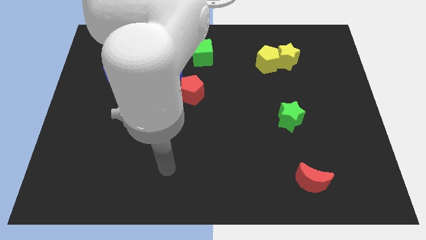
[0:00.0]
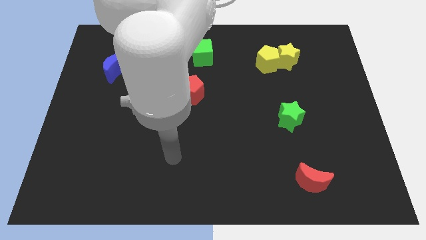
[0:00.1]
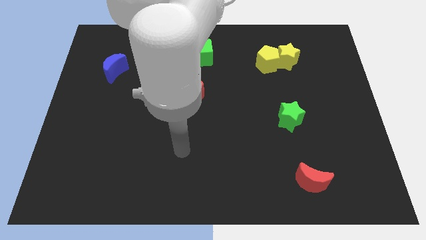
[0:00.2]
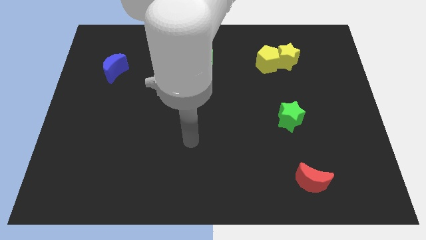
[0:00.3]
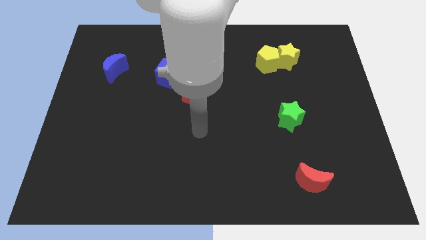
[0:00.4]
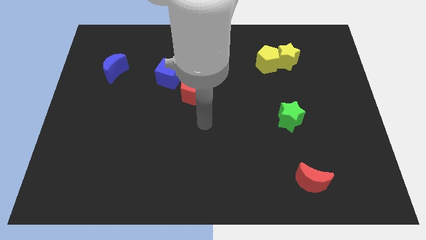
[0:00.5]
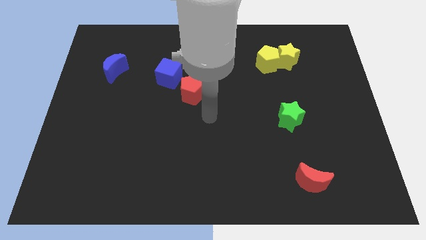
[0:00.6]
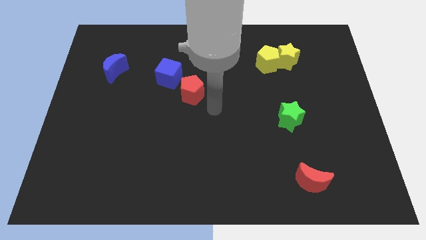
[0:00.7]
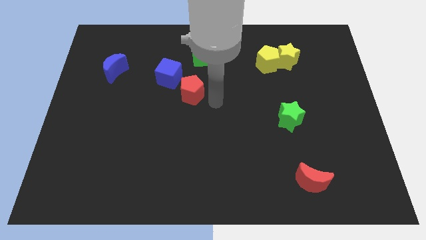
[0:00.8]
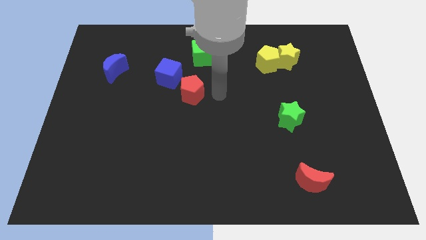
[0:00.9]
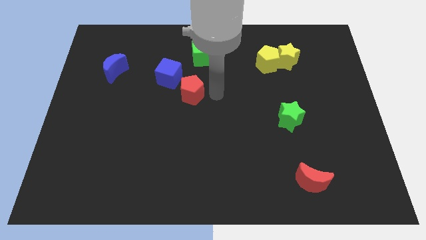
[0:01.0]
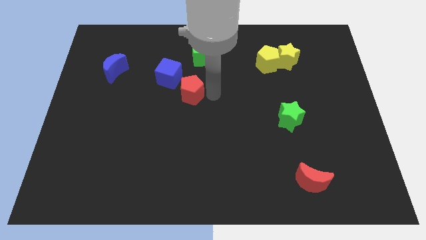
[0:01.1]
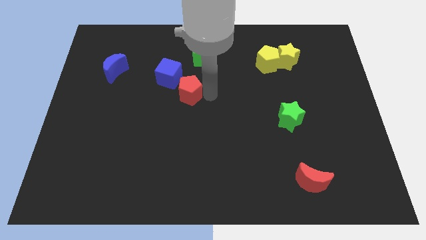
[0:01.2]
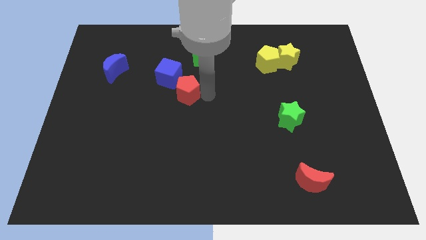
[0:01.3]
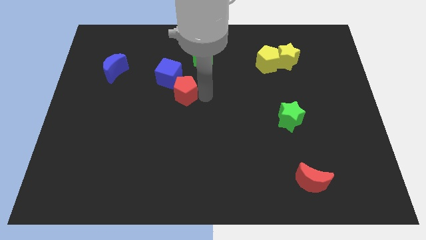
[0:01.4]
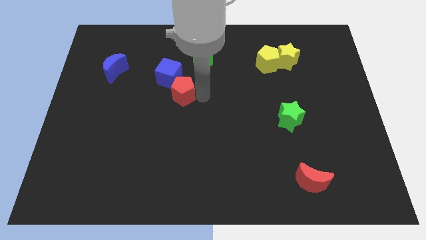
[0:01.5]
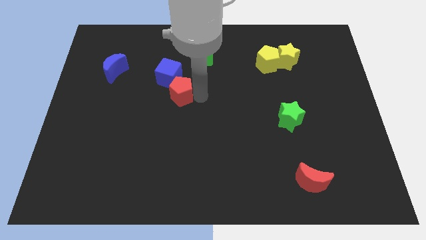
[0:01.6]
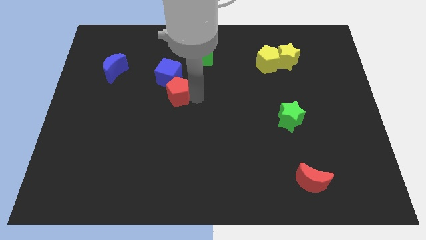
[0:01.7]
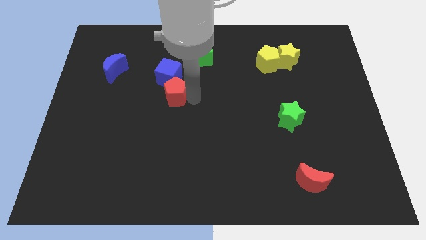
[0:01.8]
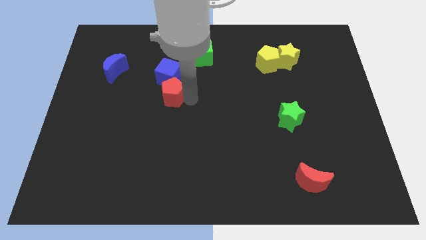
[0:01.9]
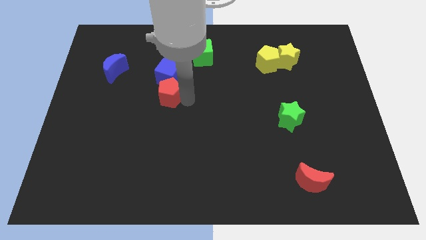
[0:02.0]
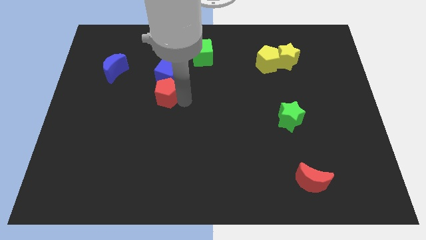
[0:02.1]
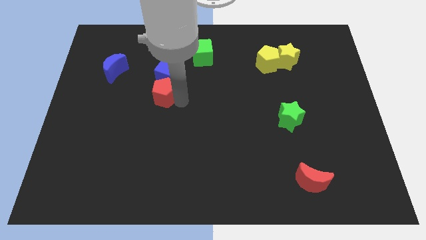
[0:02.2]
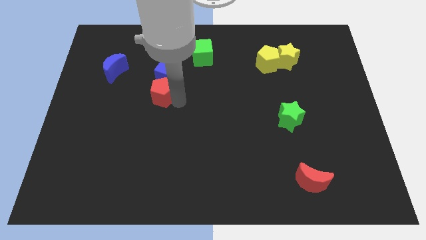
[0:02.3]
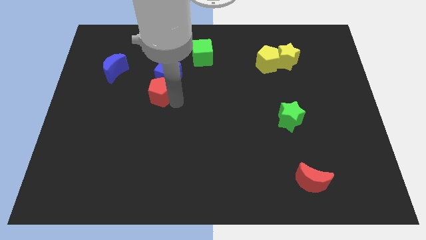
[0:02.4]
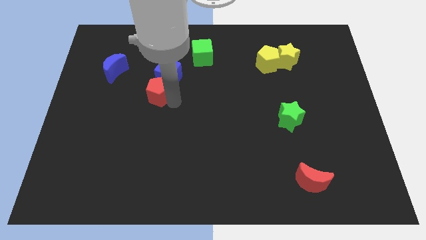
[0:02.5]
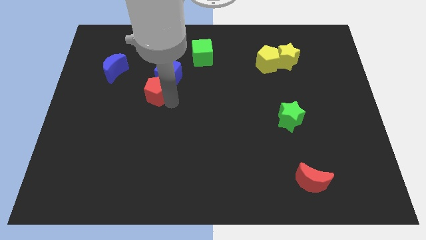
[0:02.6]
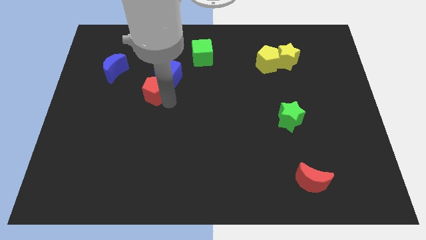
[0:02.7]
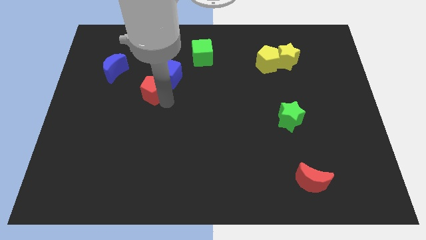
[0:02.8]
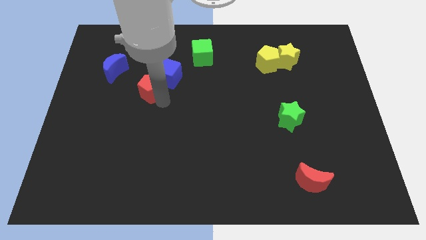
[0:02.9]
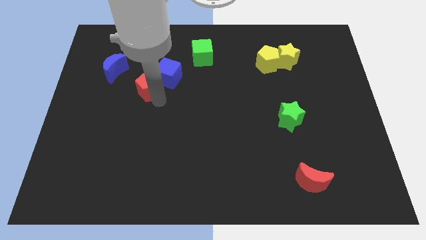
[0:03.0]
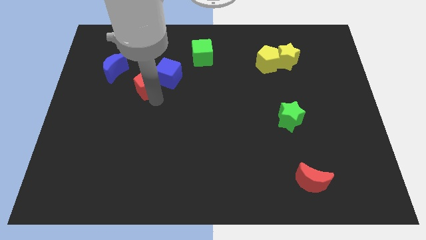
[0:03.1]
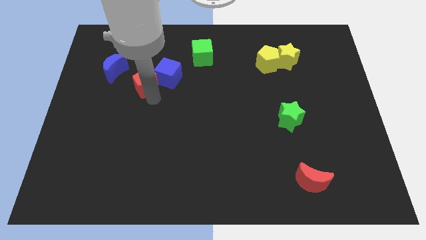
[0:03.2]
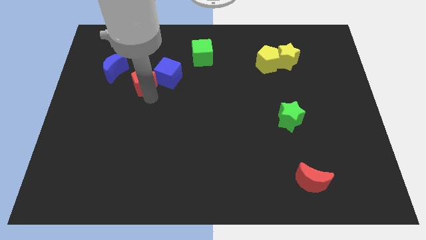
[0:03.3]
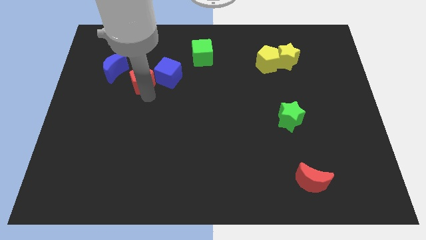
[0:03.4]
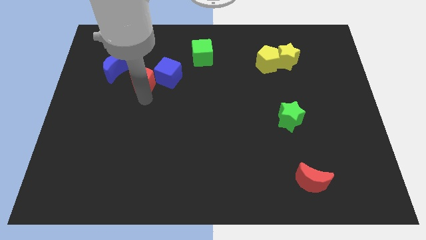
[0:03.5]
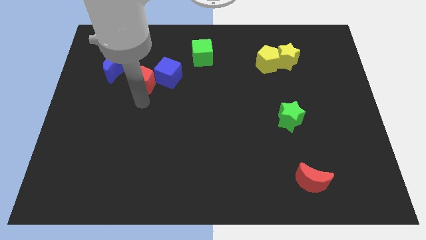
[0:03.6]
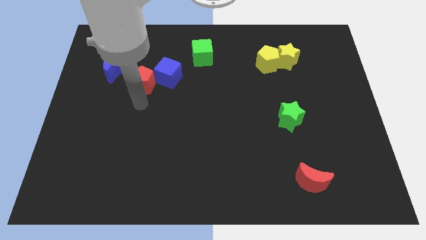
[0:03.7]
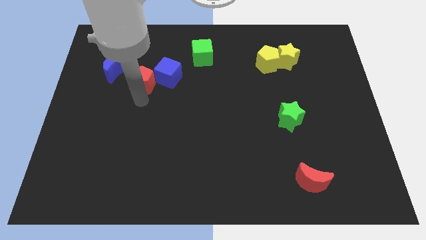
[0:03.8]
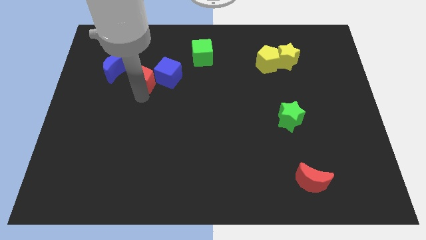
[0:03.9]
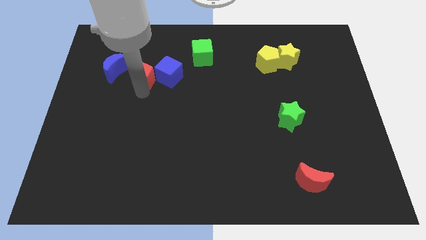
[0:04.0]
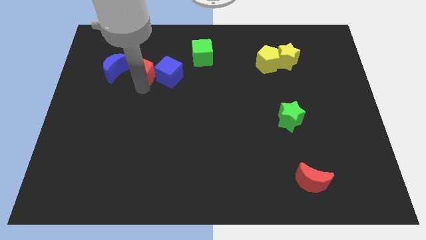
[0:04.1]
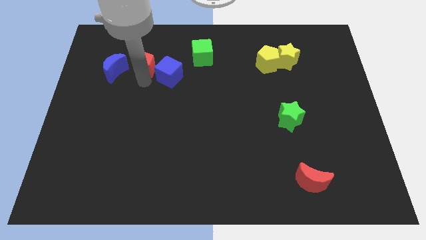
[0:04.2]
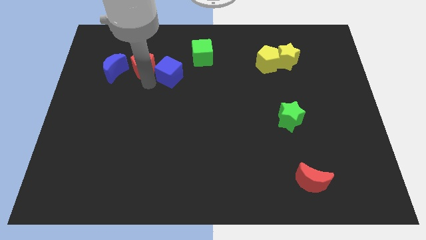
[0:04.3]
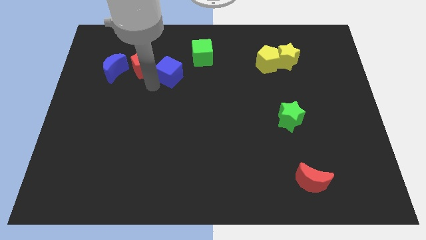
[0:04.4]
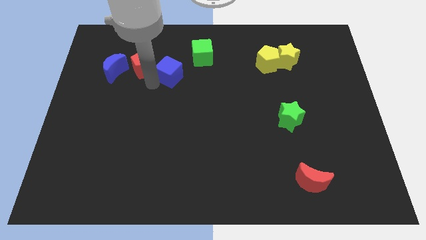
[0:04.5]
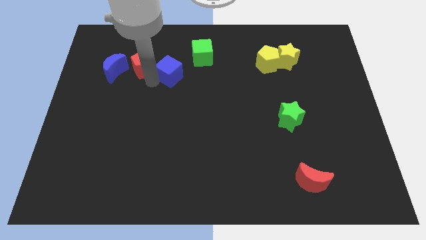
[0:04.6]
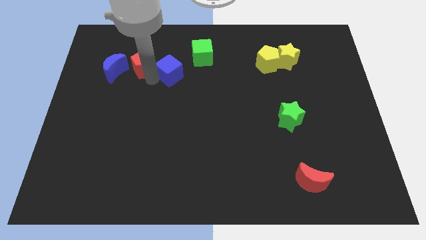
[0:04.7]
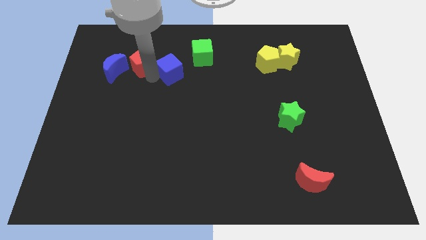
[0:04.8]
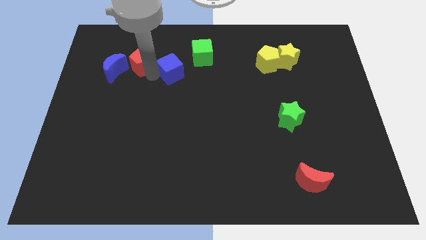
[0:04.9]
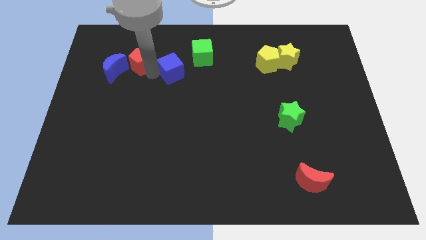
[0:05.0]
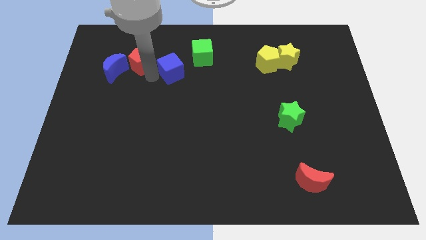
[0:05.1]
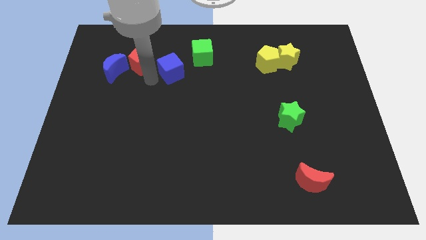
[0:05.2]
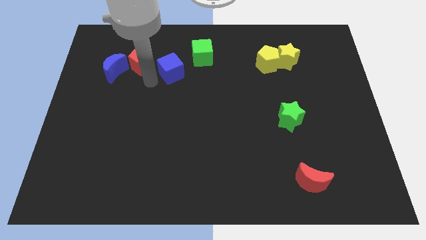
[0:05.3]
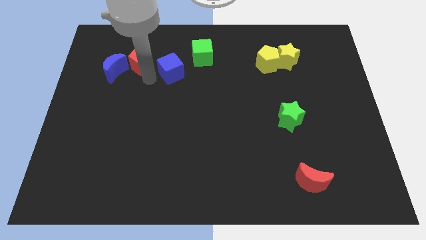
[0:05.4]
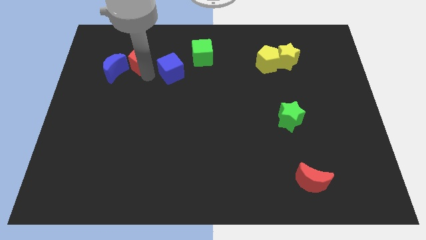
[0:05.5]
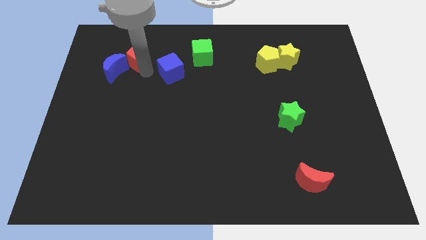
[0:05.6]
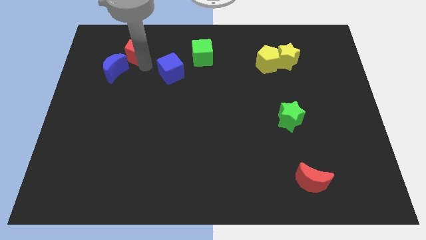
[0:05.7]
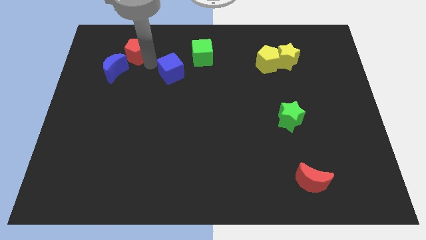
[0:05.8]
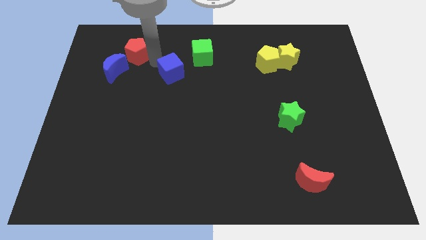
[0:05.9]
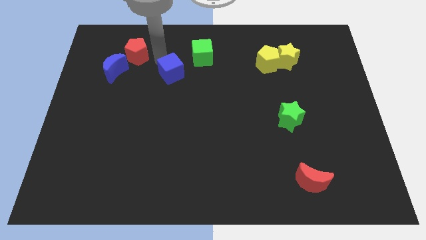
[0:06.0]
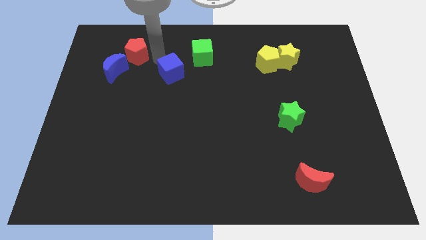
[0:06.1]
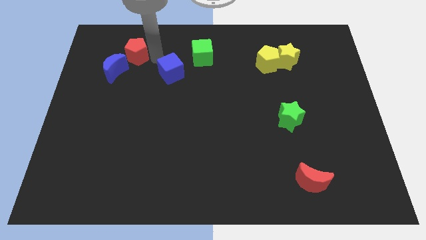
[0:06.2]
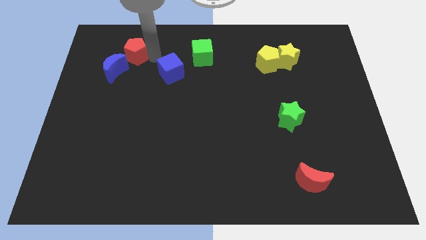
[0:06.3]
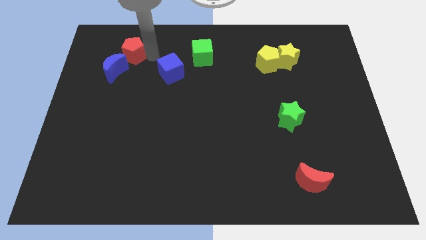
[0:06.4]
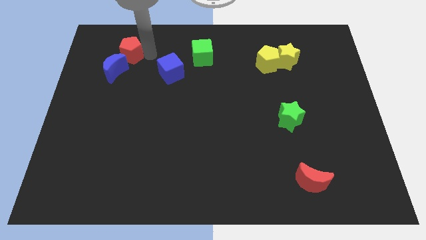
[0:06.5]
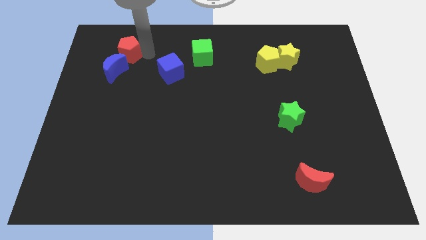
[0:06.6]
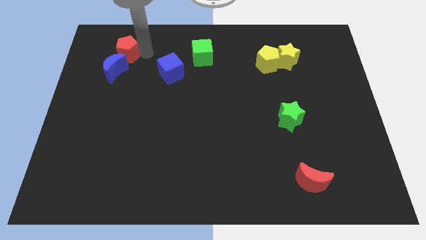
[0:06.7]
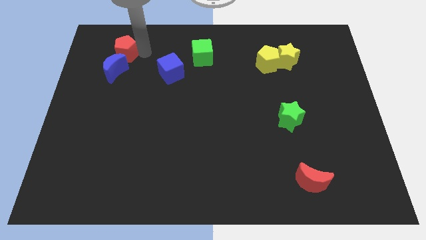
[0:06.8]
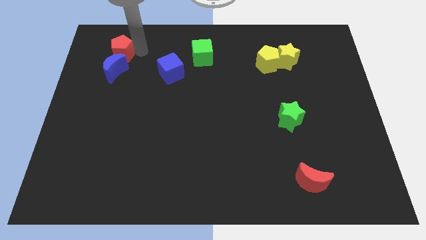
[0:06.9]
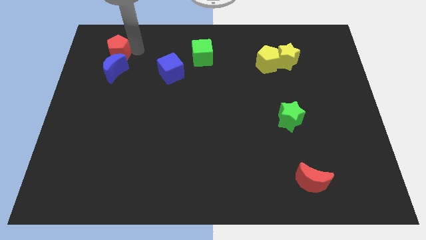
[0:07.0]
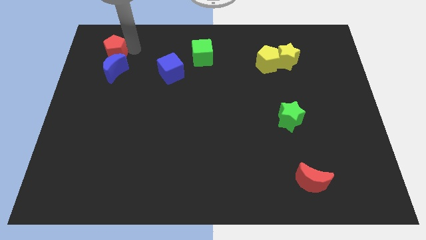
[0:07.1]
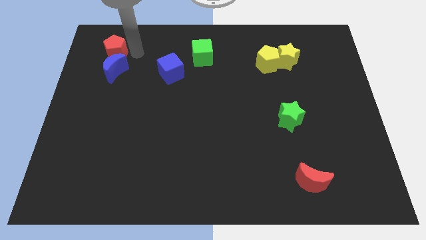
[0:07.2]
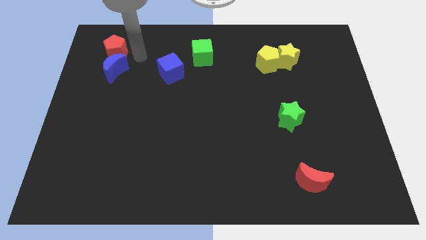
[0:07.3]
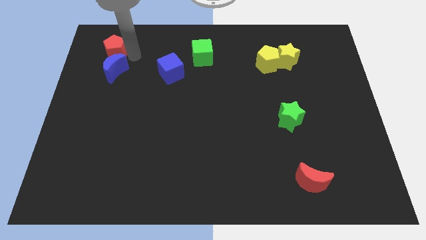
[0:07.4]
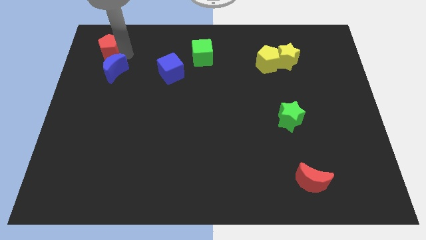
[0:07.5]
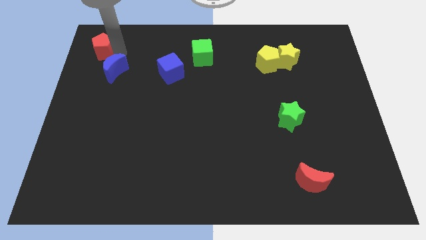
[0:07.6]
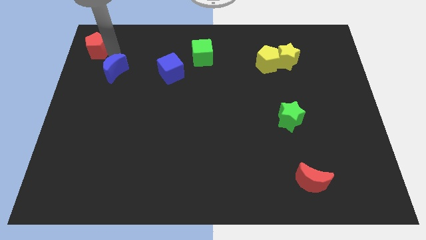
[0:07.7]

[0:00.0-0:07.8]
push the red pentagon to the top left corner
